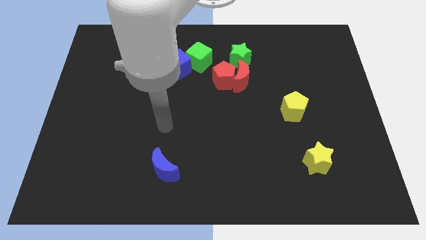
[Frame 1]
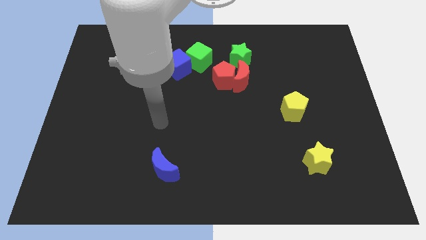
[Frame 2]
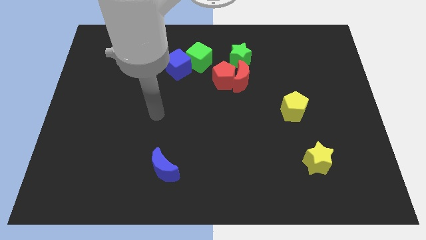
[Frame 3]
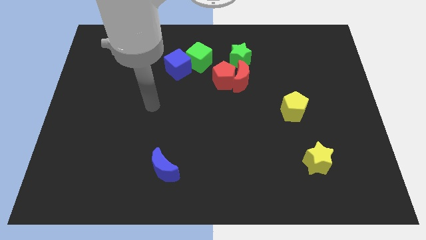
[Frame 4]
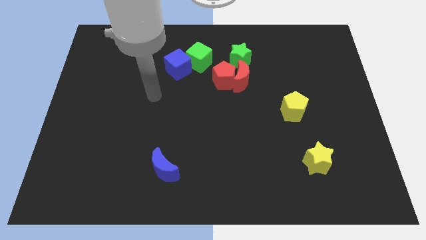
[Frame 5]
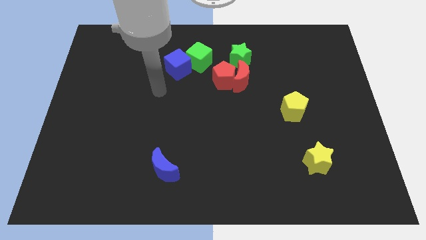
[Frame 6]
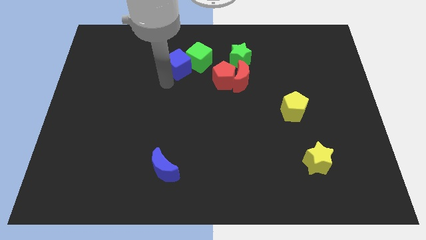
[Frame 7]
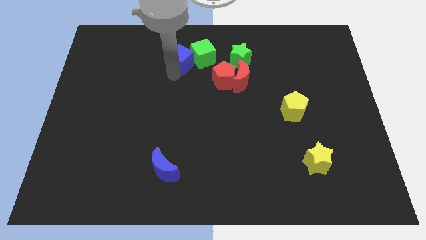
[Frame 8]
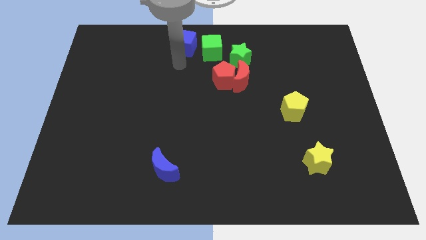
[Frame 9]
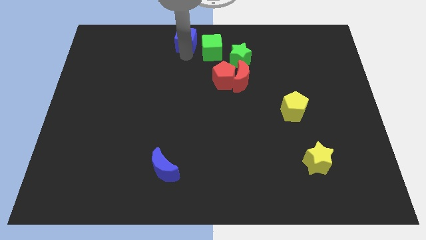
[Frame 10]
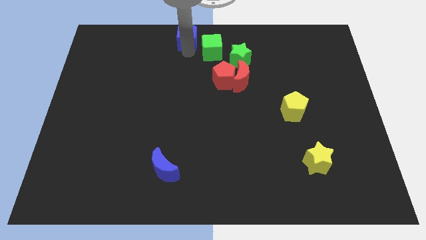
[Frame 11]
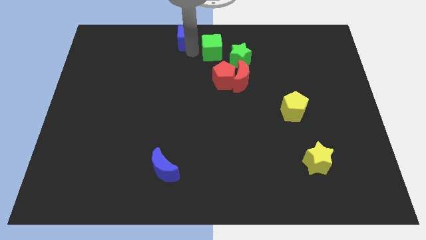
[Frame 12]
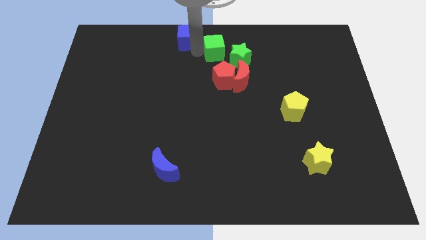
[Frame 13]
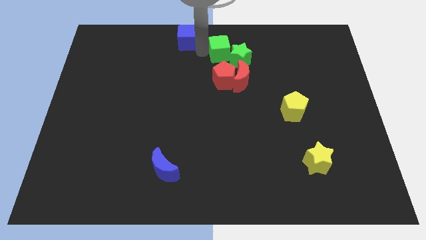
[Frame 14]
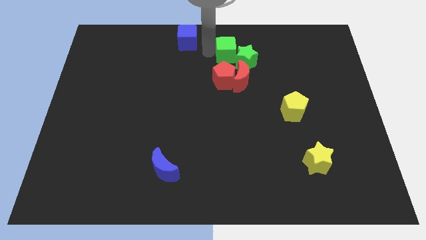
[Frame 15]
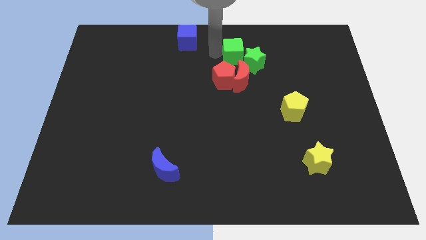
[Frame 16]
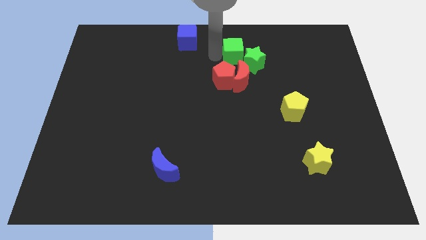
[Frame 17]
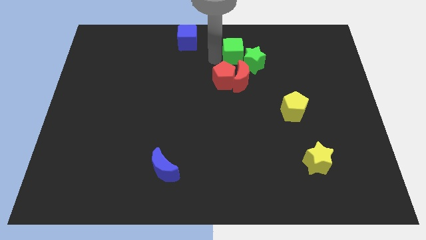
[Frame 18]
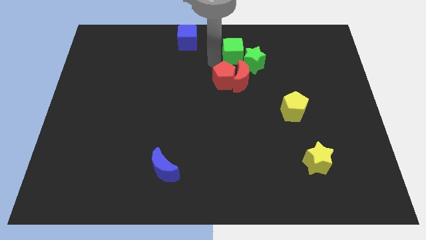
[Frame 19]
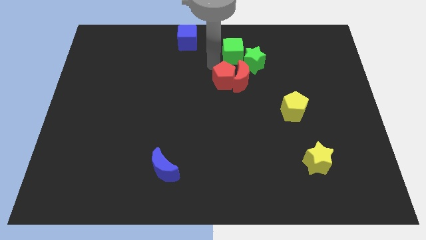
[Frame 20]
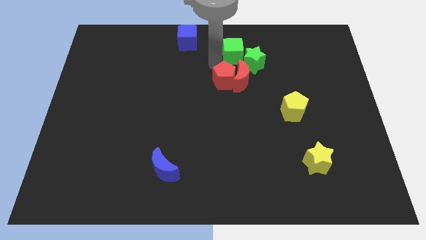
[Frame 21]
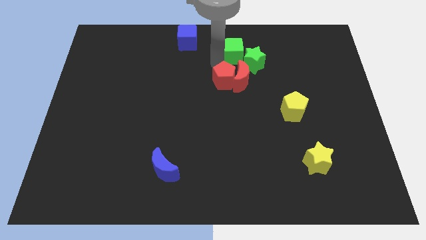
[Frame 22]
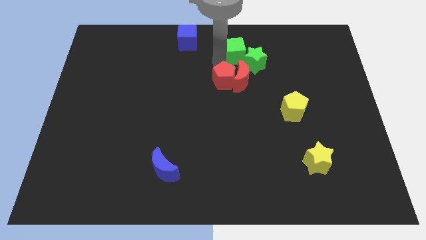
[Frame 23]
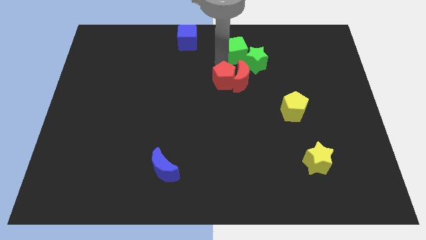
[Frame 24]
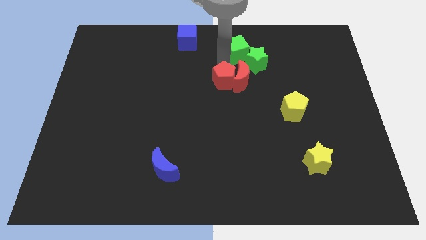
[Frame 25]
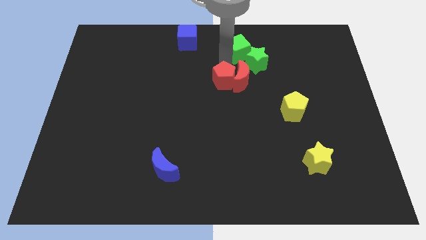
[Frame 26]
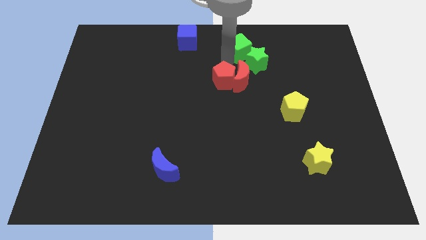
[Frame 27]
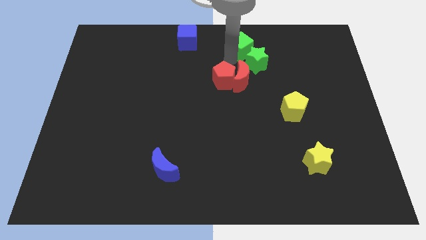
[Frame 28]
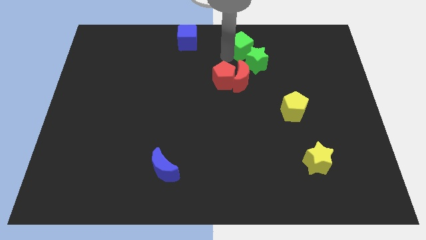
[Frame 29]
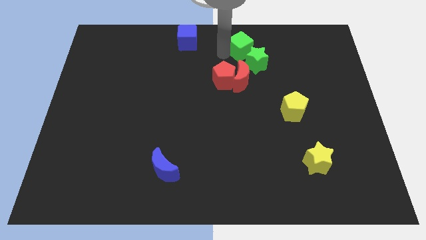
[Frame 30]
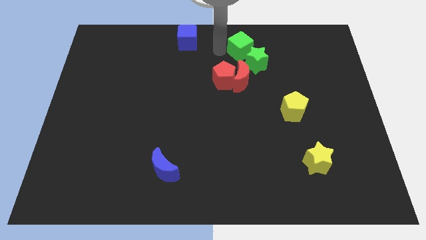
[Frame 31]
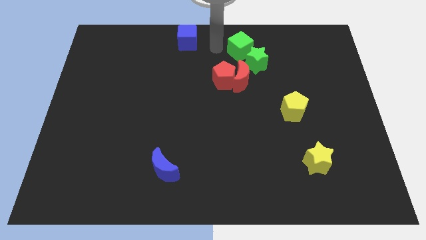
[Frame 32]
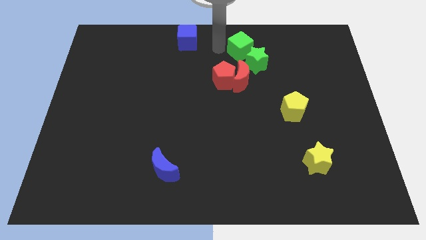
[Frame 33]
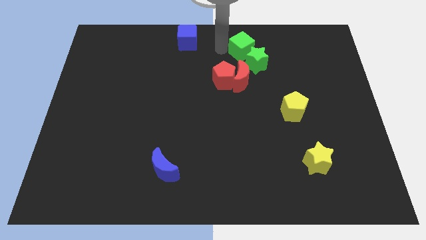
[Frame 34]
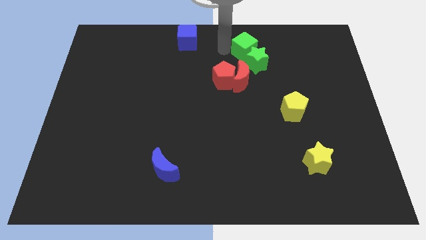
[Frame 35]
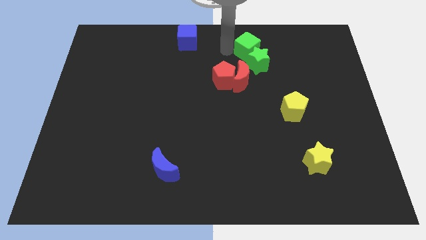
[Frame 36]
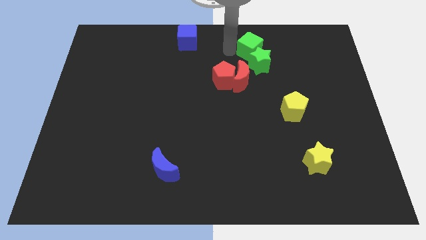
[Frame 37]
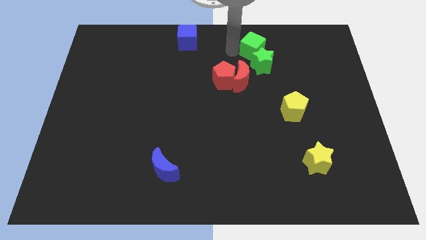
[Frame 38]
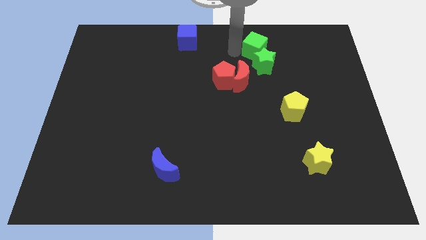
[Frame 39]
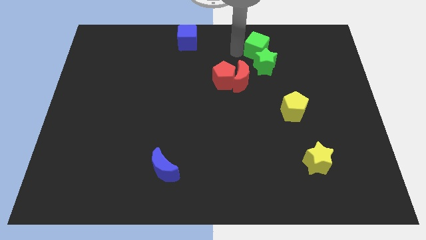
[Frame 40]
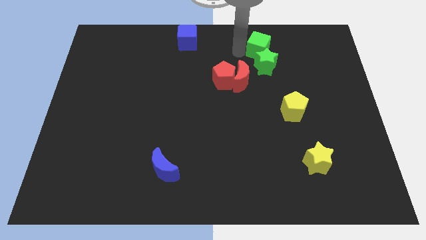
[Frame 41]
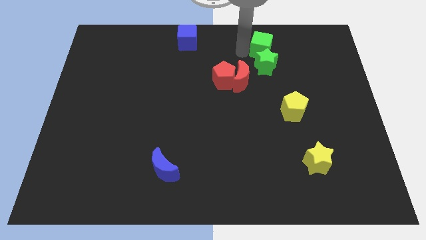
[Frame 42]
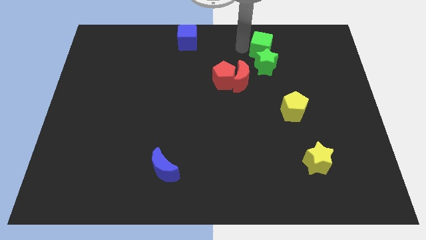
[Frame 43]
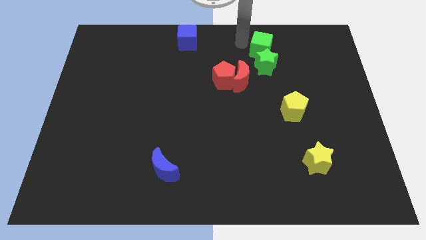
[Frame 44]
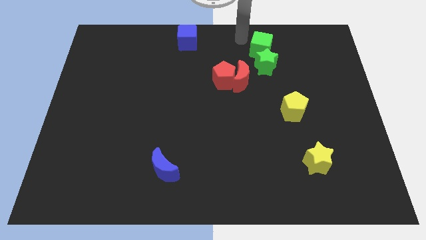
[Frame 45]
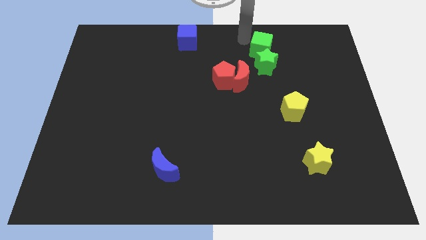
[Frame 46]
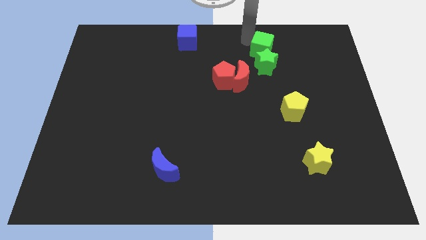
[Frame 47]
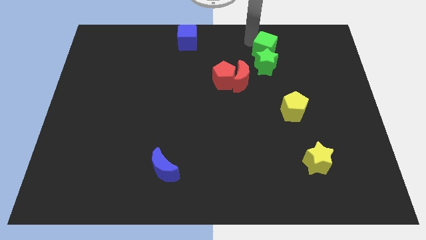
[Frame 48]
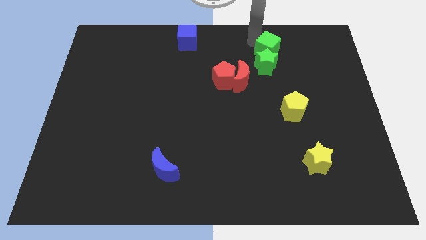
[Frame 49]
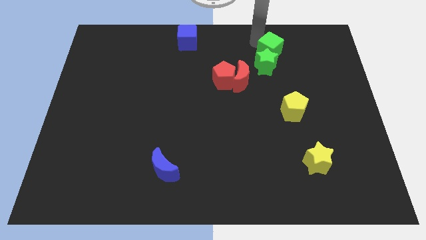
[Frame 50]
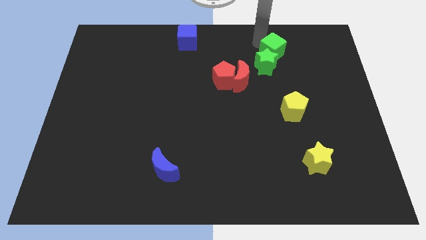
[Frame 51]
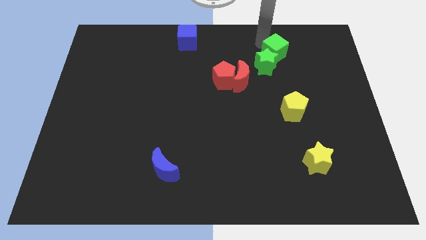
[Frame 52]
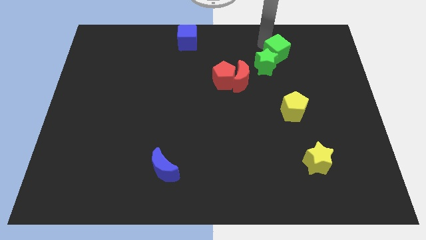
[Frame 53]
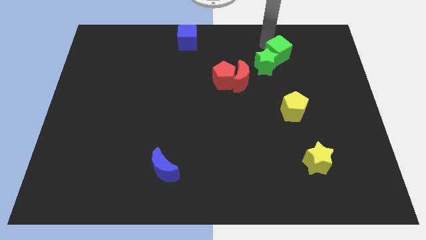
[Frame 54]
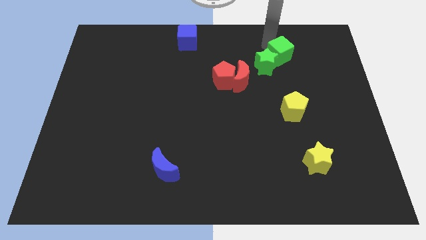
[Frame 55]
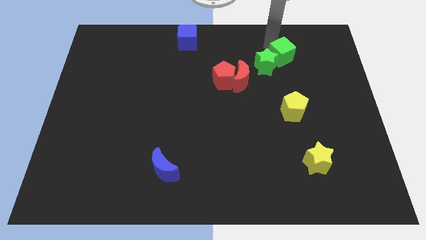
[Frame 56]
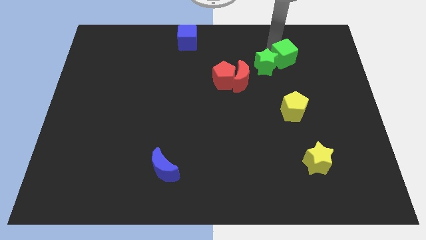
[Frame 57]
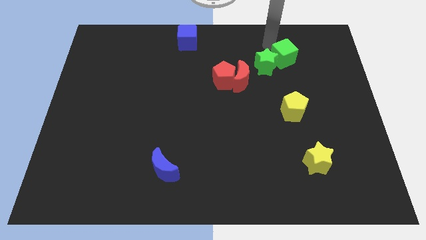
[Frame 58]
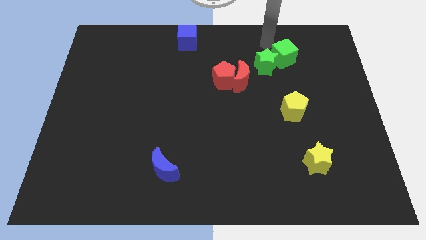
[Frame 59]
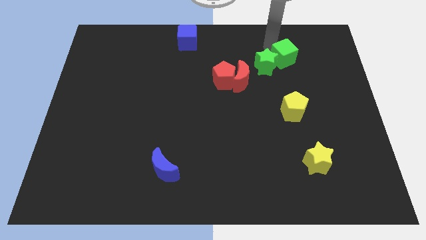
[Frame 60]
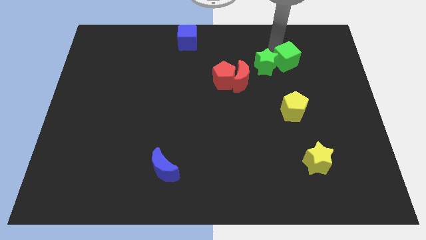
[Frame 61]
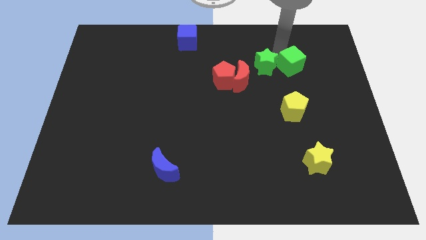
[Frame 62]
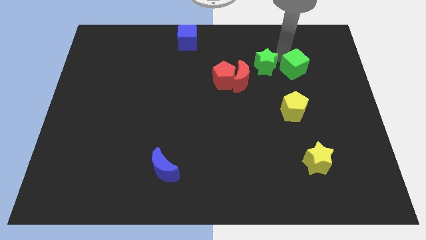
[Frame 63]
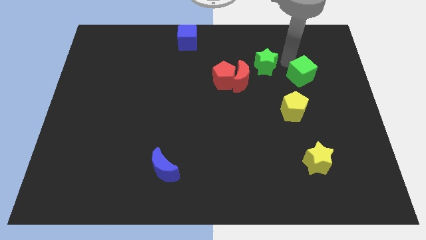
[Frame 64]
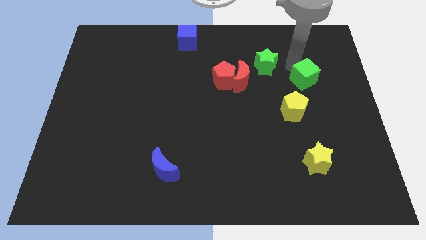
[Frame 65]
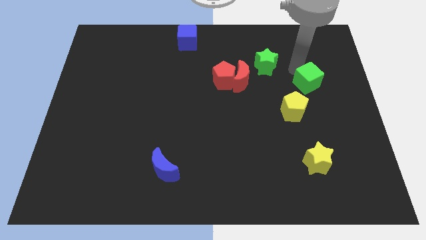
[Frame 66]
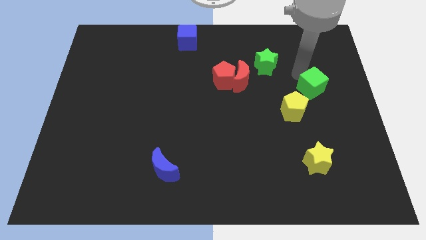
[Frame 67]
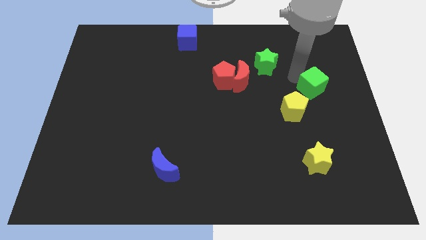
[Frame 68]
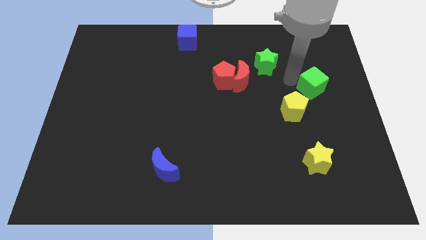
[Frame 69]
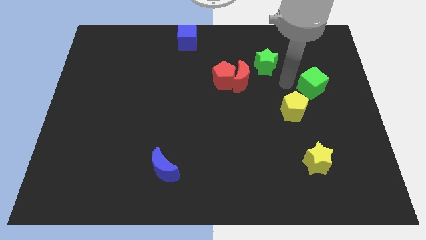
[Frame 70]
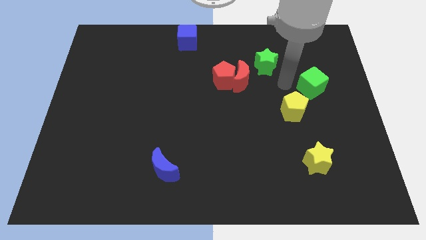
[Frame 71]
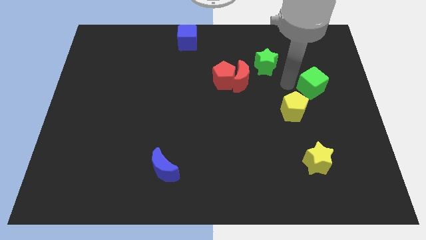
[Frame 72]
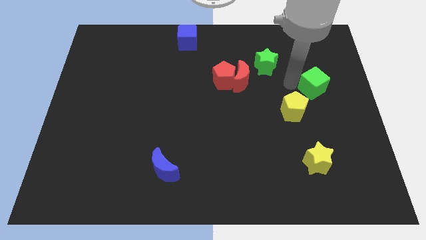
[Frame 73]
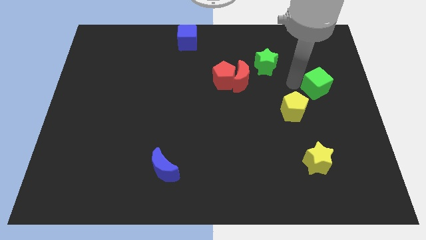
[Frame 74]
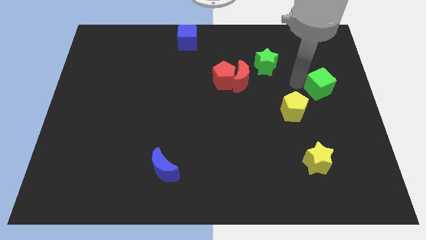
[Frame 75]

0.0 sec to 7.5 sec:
slide the green cube to the center right

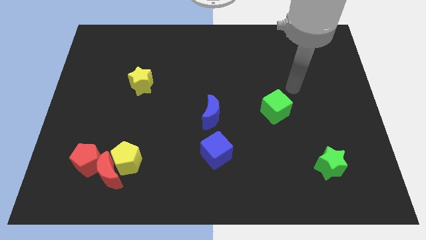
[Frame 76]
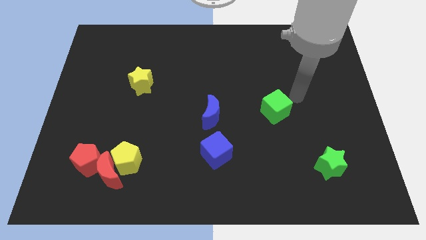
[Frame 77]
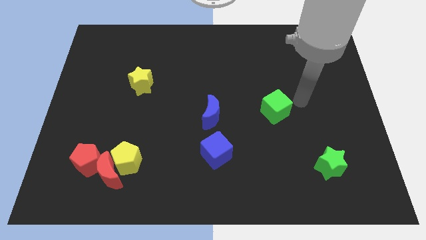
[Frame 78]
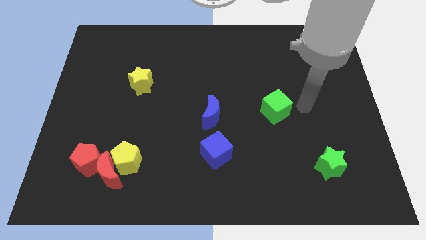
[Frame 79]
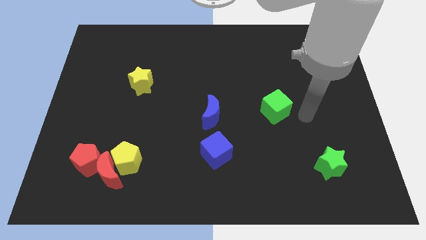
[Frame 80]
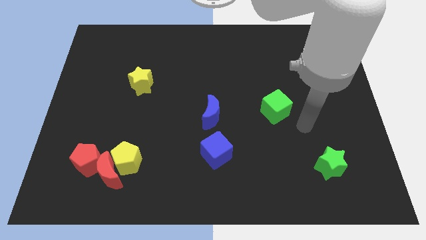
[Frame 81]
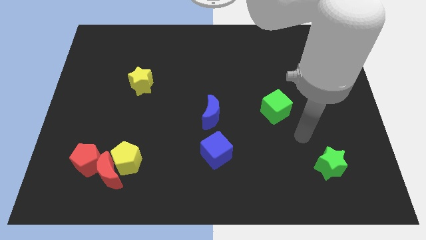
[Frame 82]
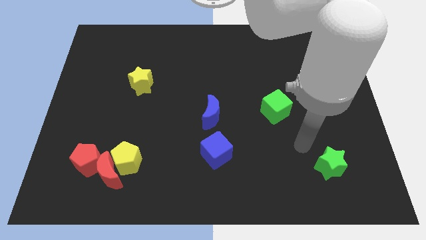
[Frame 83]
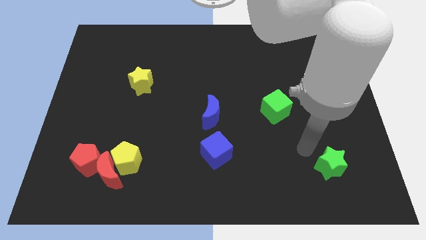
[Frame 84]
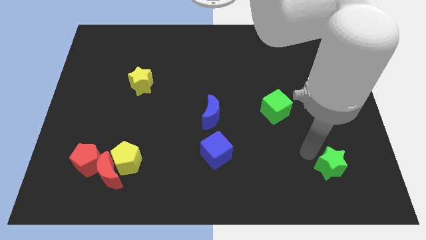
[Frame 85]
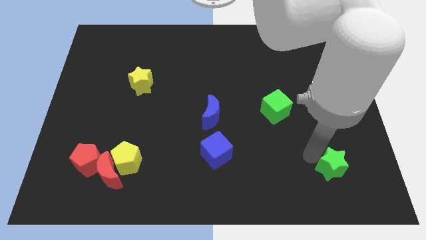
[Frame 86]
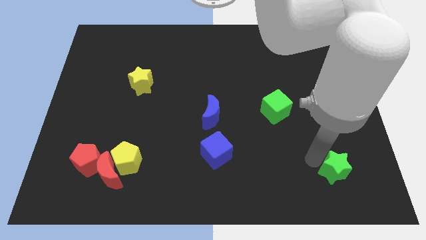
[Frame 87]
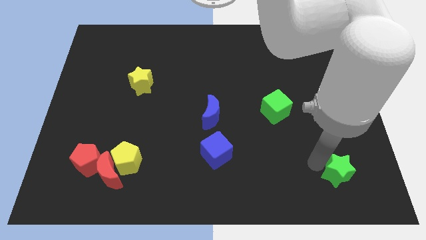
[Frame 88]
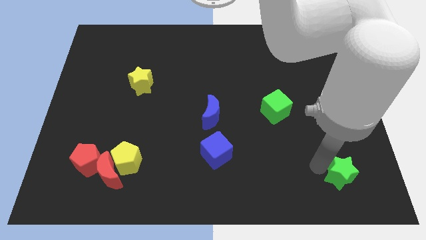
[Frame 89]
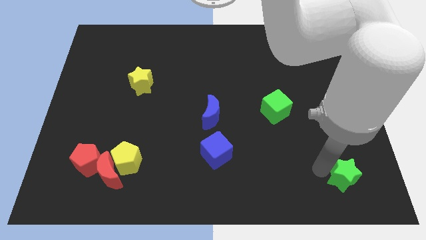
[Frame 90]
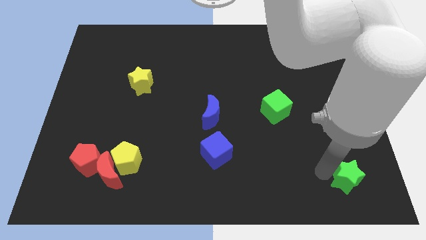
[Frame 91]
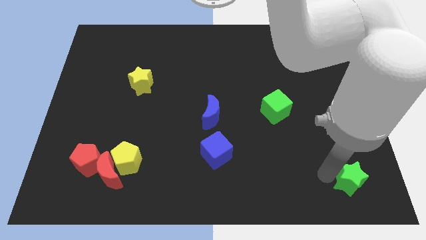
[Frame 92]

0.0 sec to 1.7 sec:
put the green star to the bottom right
